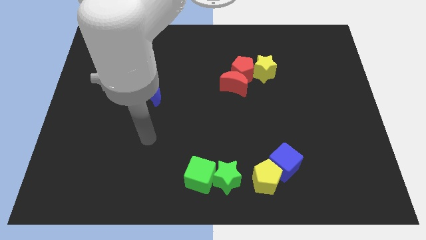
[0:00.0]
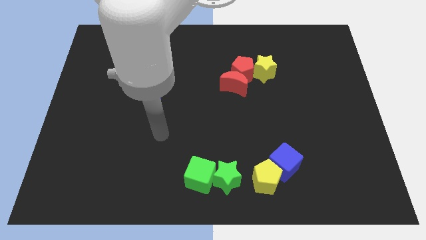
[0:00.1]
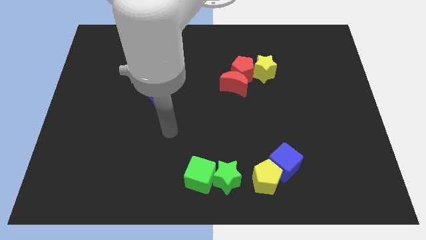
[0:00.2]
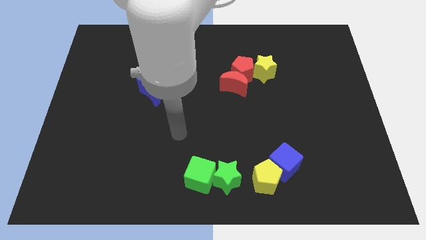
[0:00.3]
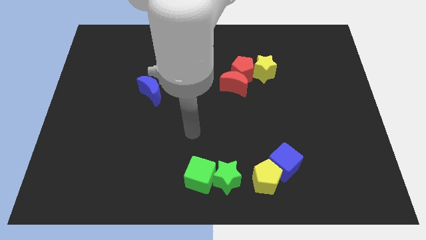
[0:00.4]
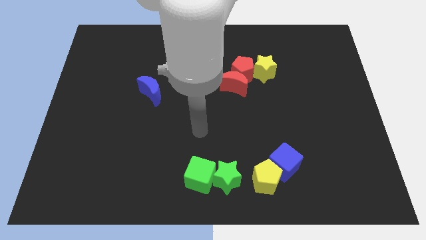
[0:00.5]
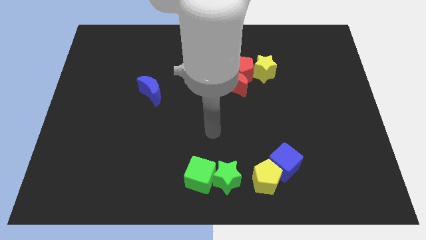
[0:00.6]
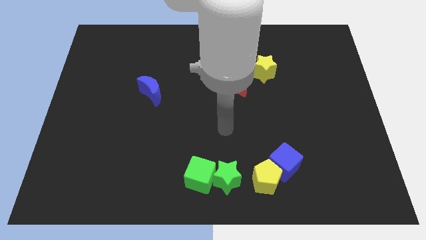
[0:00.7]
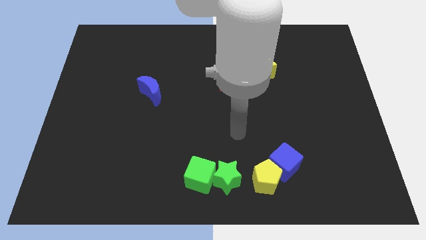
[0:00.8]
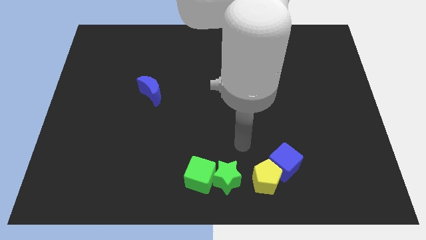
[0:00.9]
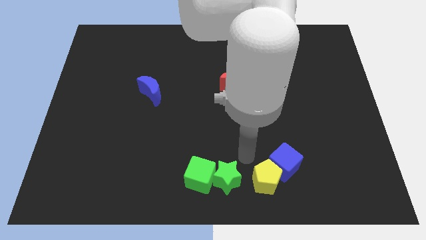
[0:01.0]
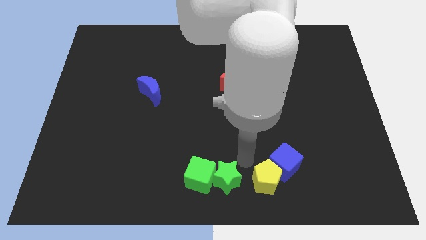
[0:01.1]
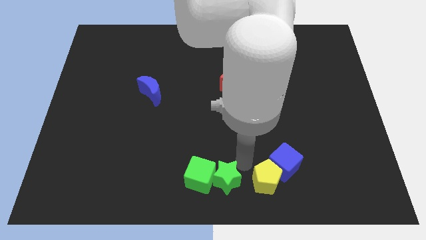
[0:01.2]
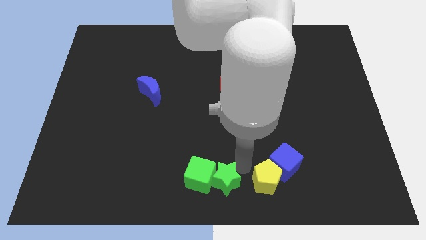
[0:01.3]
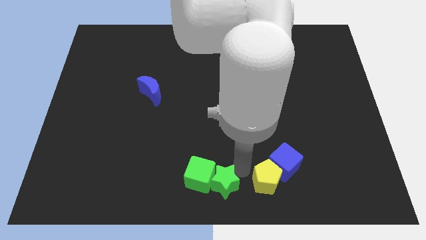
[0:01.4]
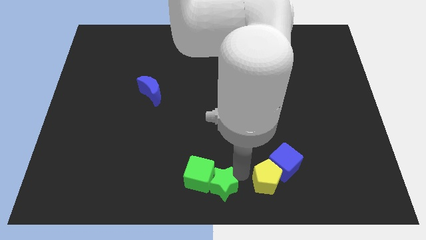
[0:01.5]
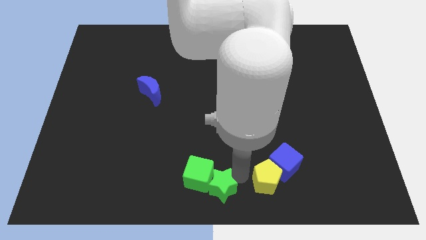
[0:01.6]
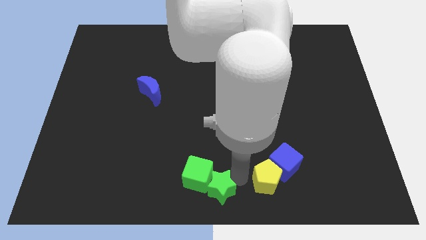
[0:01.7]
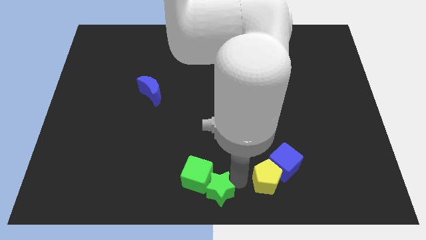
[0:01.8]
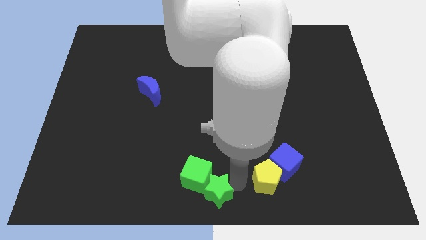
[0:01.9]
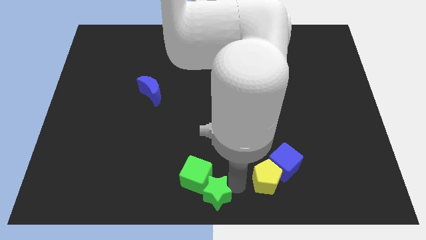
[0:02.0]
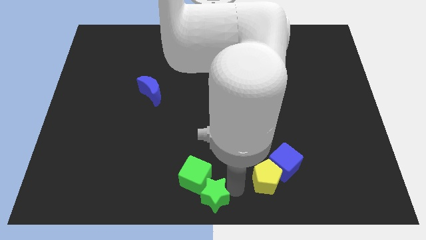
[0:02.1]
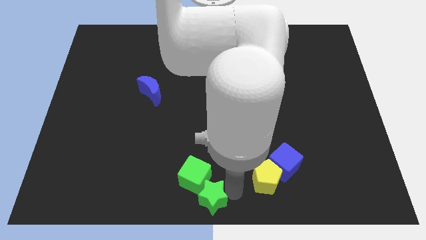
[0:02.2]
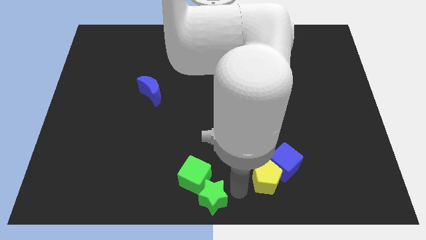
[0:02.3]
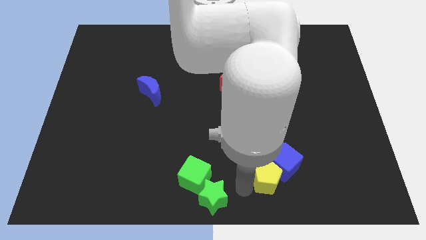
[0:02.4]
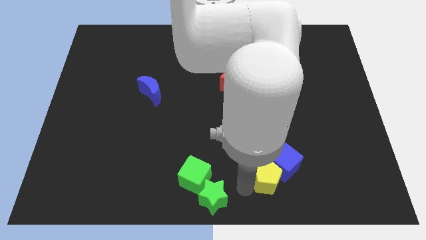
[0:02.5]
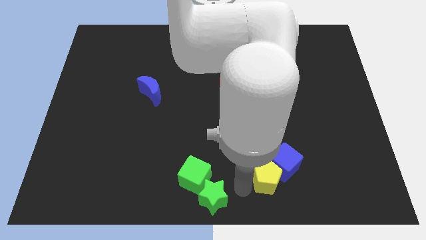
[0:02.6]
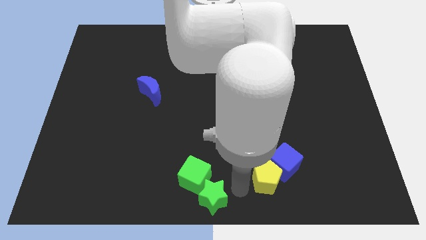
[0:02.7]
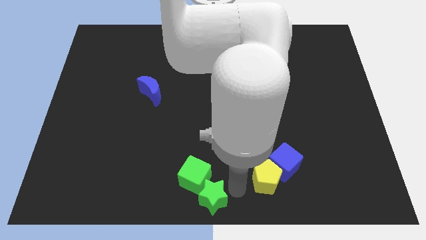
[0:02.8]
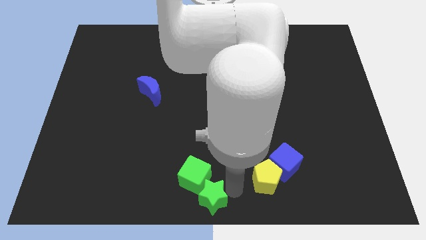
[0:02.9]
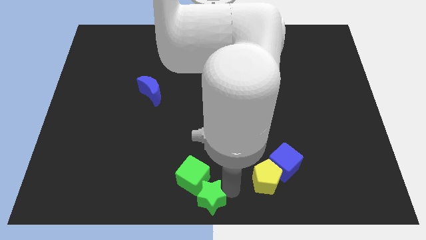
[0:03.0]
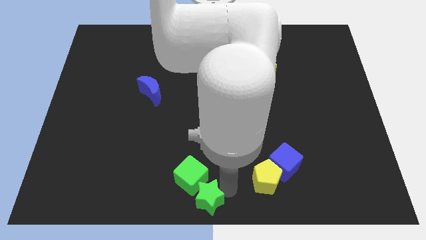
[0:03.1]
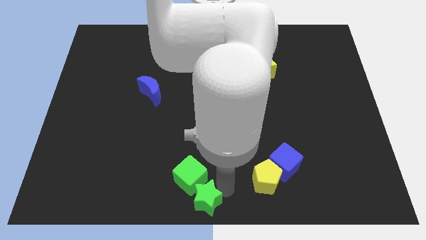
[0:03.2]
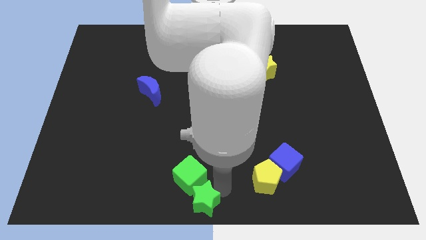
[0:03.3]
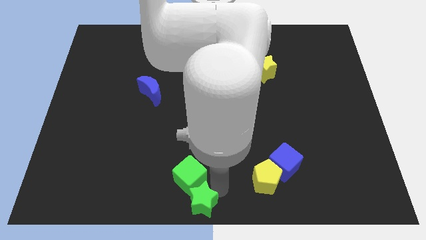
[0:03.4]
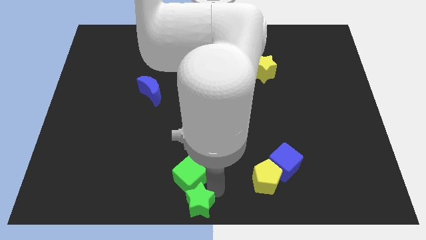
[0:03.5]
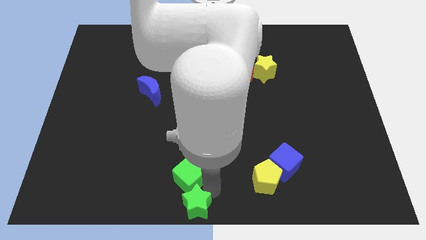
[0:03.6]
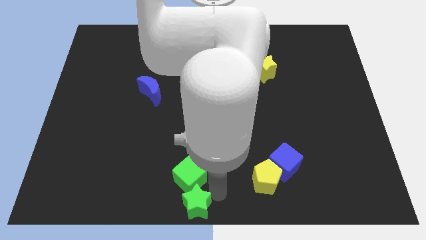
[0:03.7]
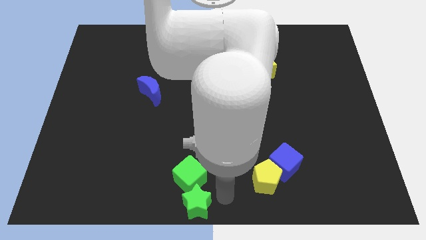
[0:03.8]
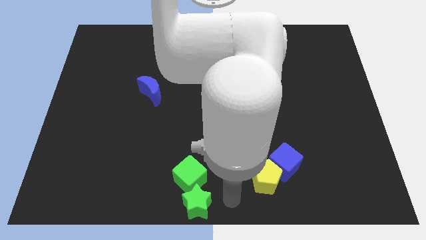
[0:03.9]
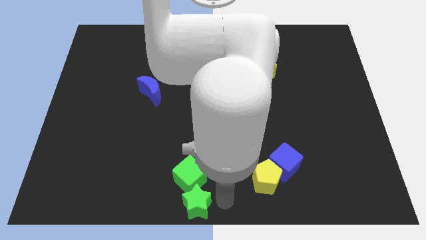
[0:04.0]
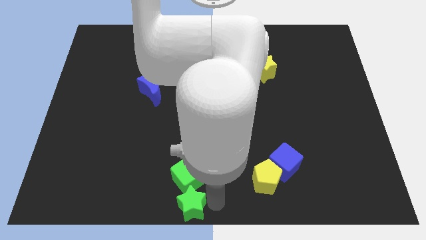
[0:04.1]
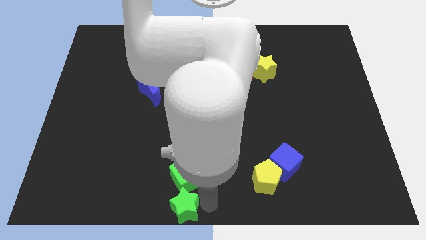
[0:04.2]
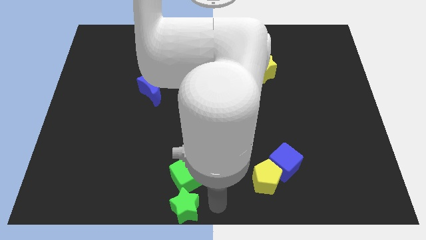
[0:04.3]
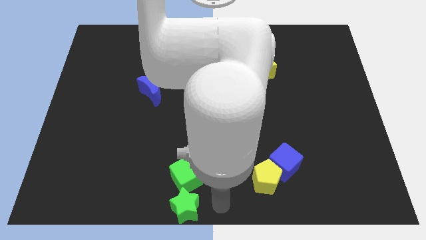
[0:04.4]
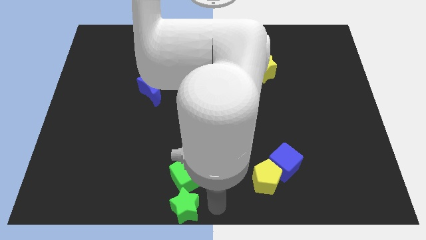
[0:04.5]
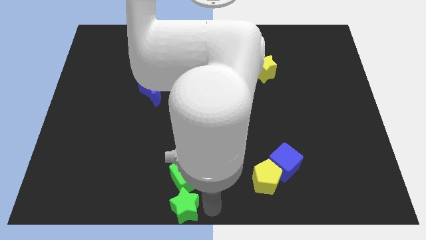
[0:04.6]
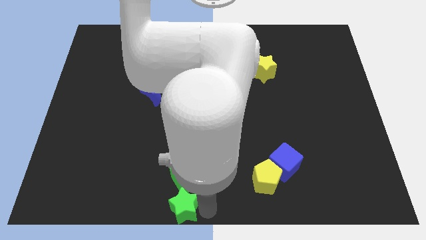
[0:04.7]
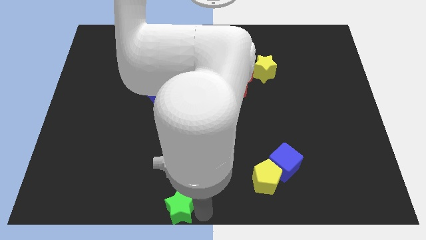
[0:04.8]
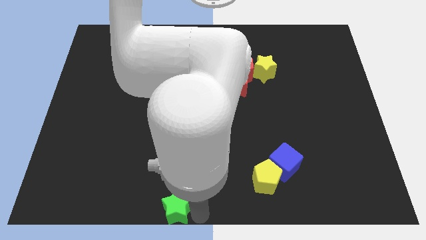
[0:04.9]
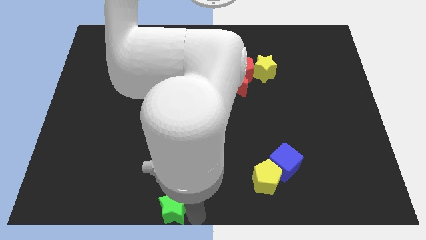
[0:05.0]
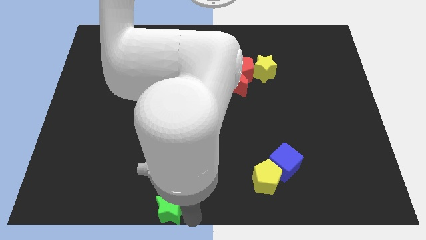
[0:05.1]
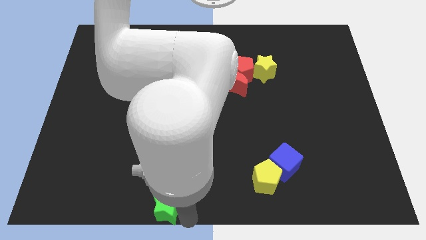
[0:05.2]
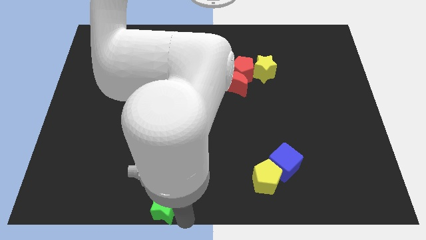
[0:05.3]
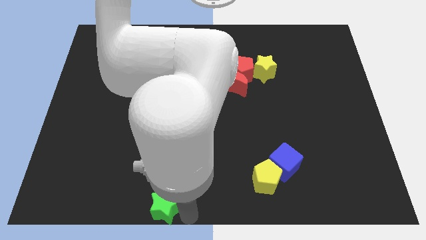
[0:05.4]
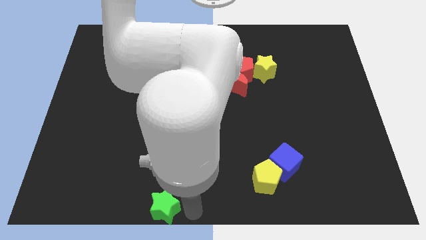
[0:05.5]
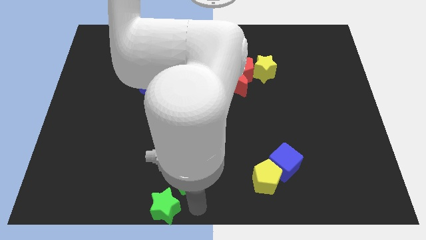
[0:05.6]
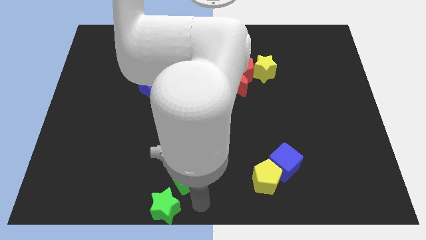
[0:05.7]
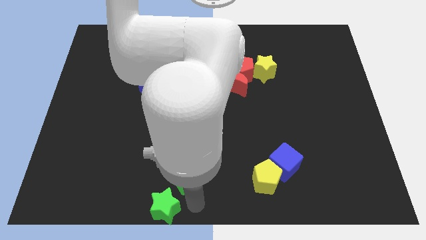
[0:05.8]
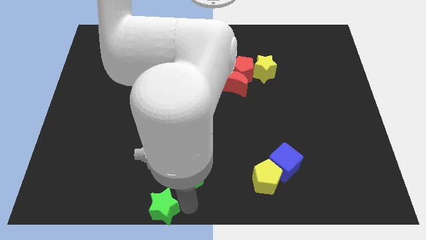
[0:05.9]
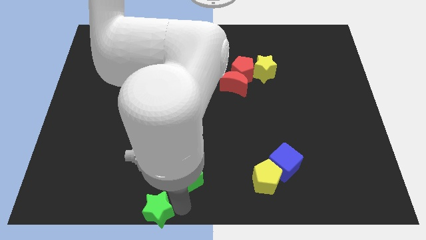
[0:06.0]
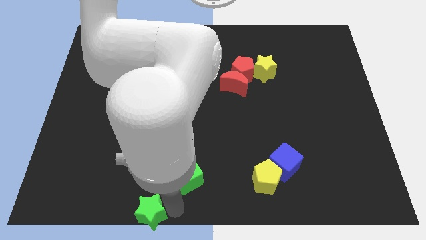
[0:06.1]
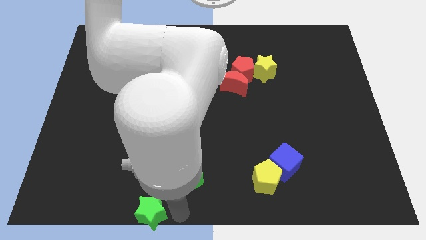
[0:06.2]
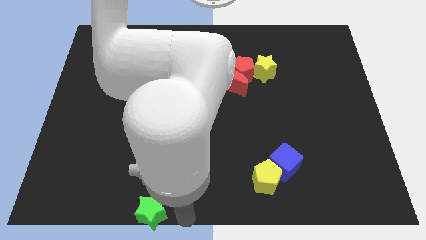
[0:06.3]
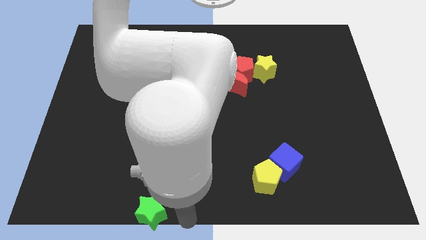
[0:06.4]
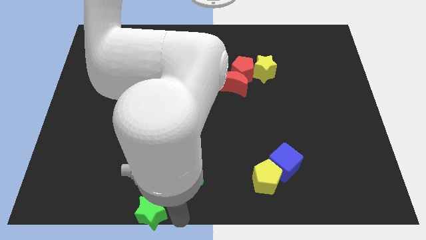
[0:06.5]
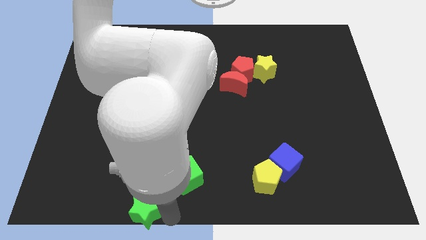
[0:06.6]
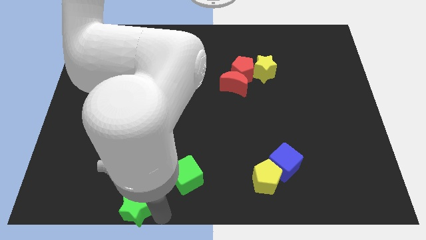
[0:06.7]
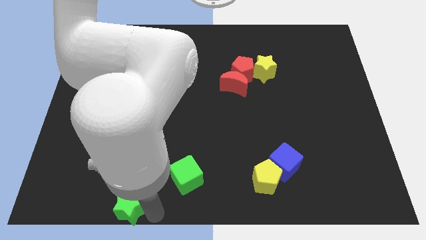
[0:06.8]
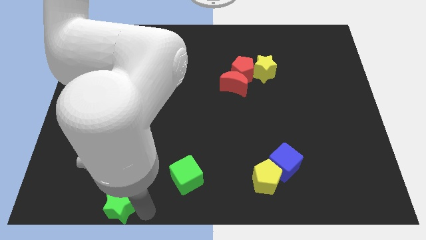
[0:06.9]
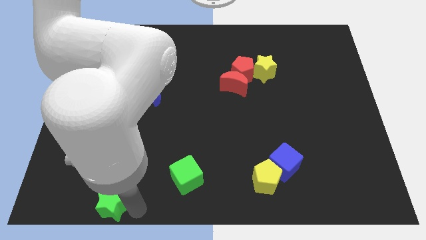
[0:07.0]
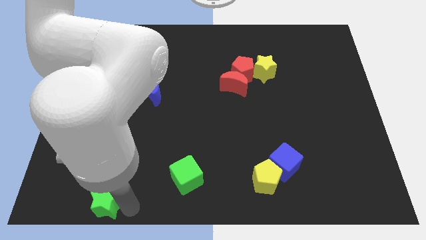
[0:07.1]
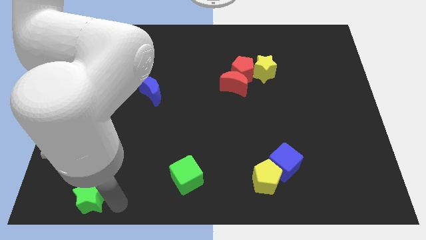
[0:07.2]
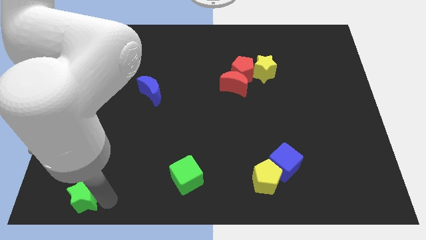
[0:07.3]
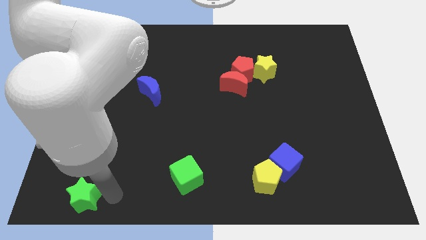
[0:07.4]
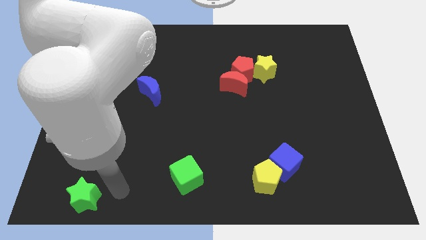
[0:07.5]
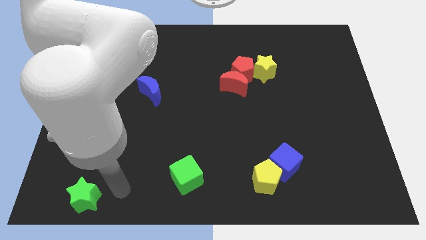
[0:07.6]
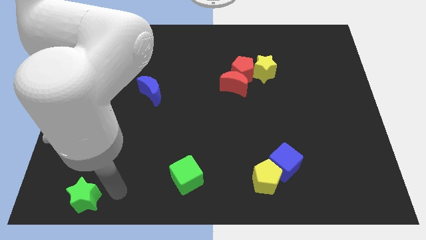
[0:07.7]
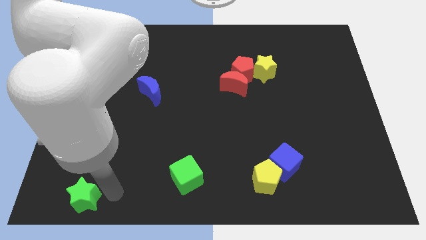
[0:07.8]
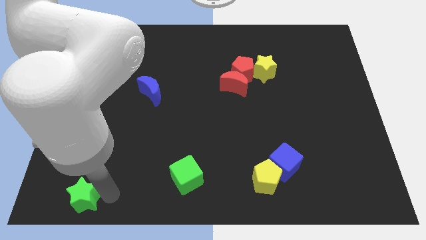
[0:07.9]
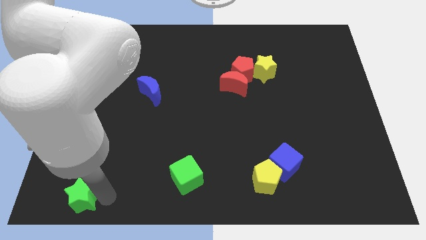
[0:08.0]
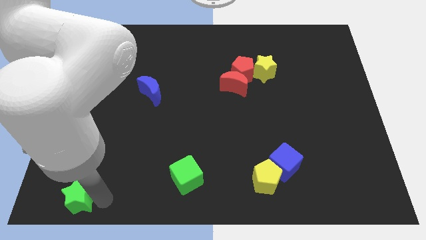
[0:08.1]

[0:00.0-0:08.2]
put the green star to the bottom left corner
